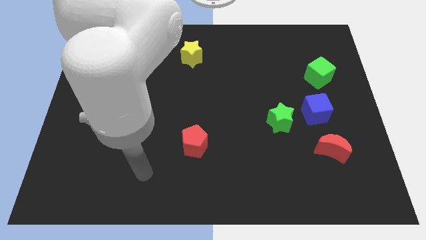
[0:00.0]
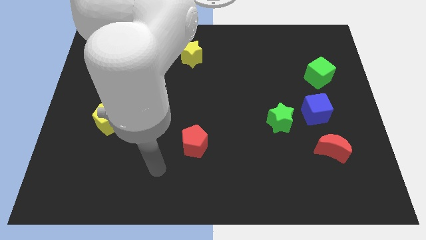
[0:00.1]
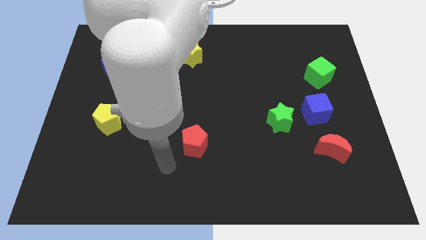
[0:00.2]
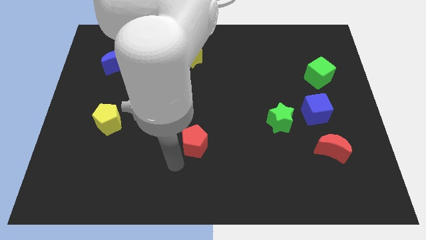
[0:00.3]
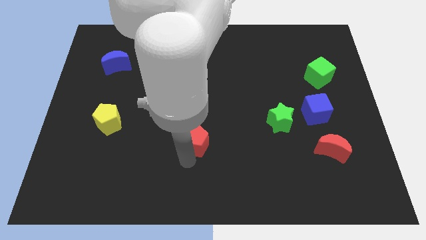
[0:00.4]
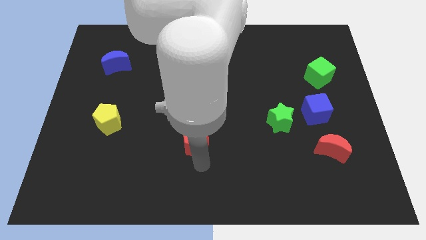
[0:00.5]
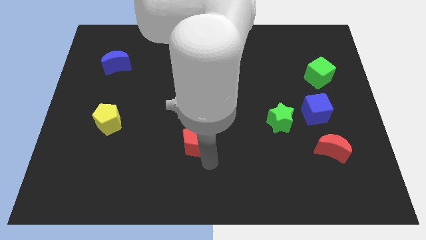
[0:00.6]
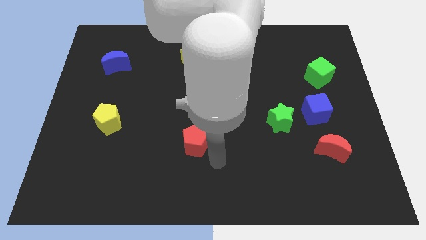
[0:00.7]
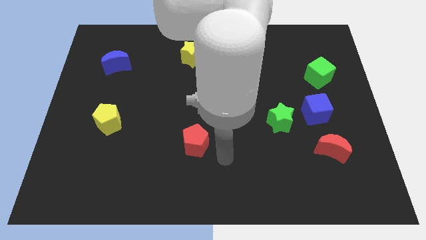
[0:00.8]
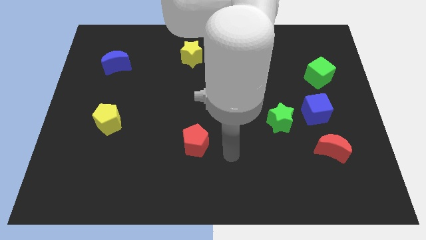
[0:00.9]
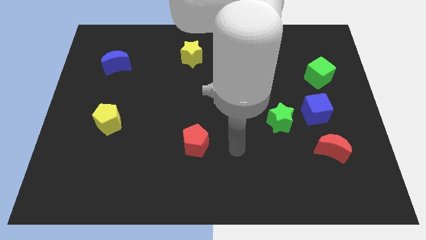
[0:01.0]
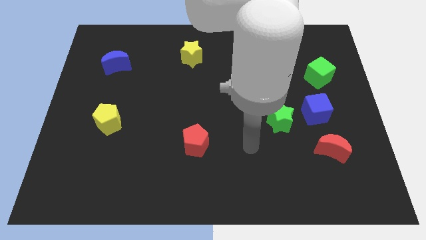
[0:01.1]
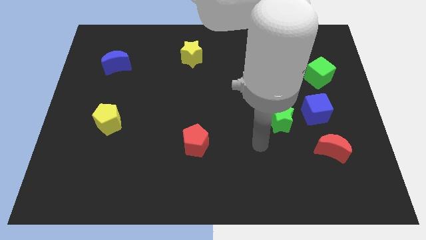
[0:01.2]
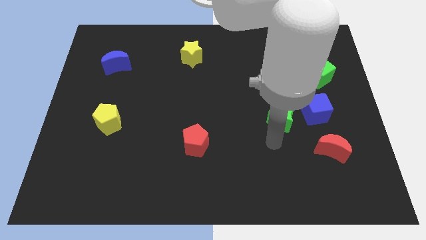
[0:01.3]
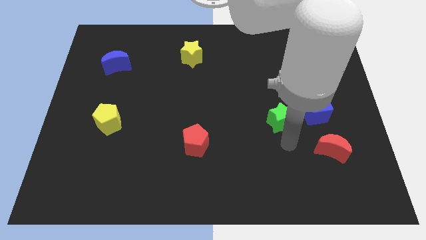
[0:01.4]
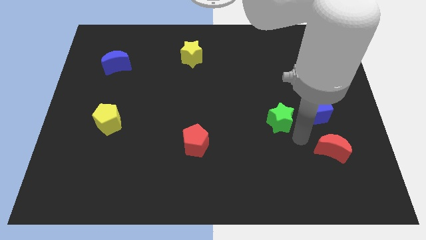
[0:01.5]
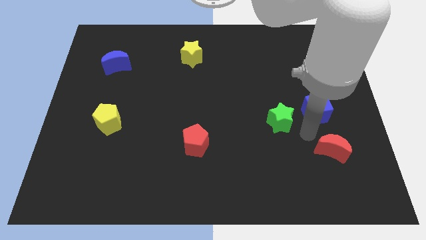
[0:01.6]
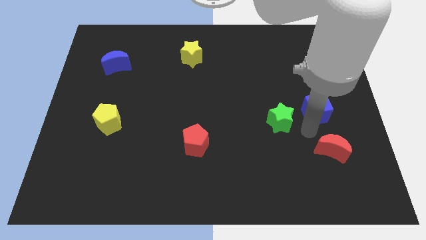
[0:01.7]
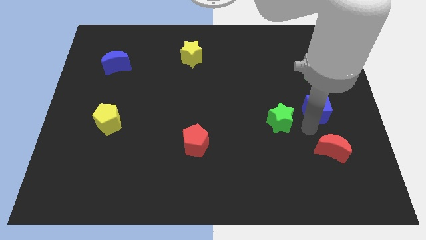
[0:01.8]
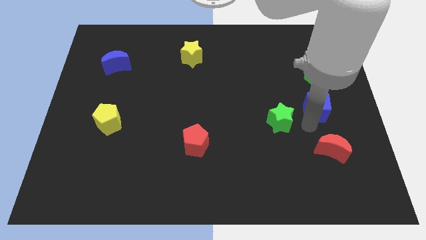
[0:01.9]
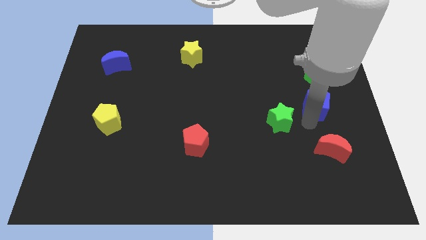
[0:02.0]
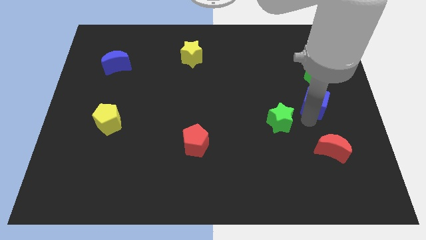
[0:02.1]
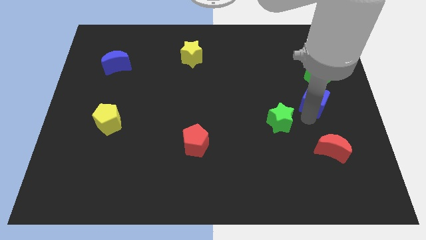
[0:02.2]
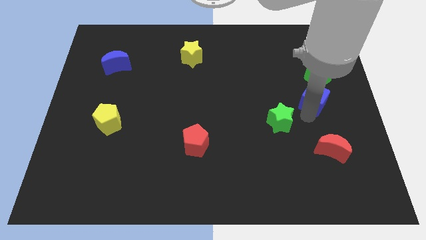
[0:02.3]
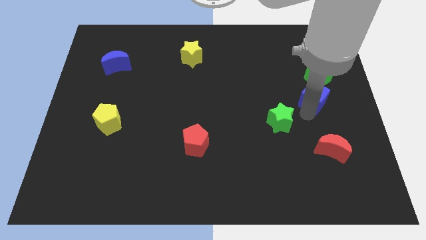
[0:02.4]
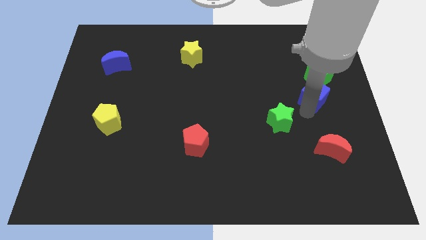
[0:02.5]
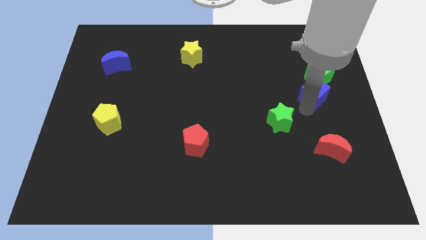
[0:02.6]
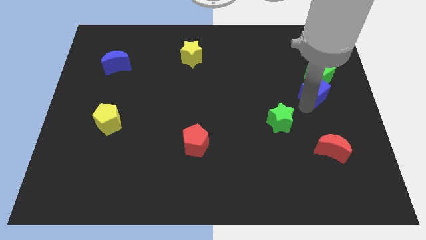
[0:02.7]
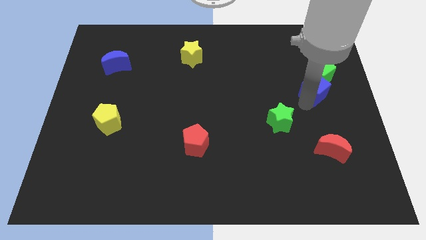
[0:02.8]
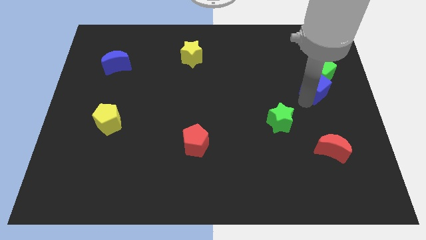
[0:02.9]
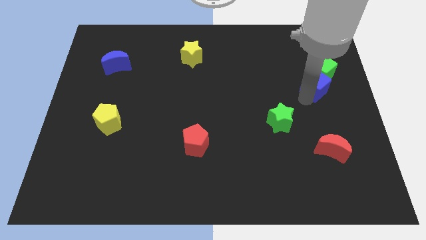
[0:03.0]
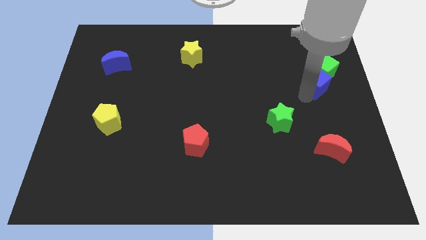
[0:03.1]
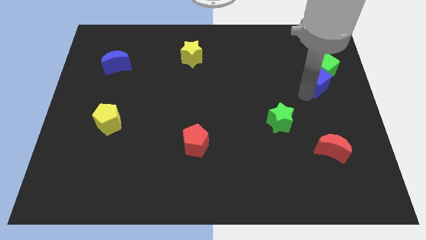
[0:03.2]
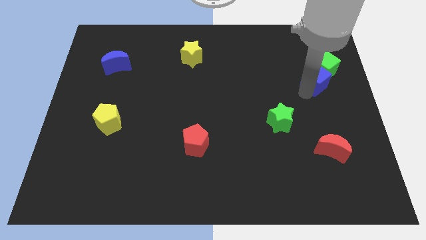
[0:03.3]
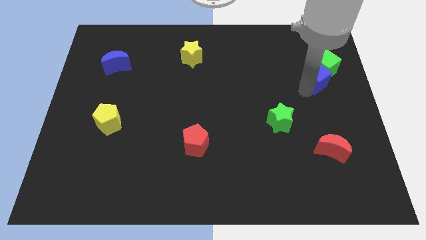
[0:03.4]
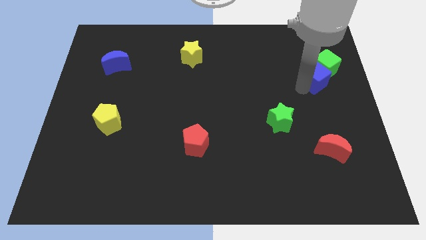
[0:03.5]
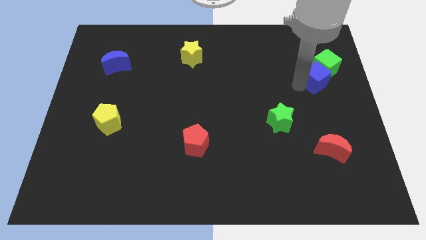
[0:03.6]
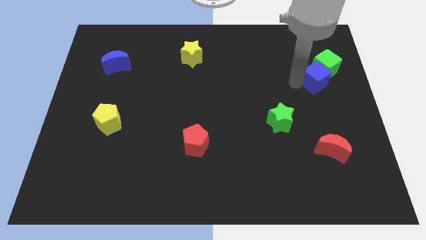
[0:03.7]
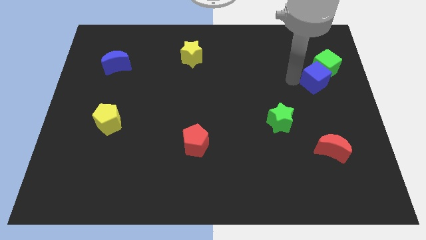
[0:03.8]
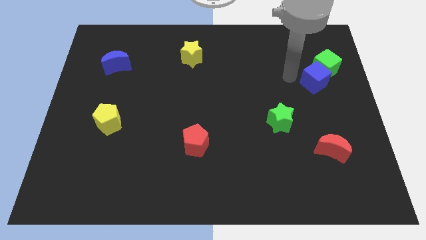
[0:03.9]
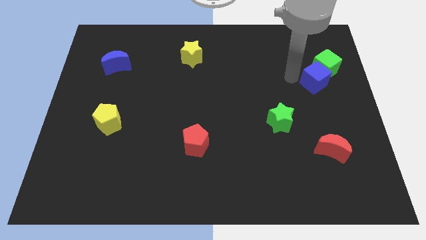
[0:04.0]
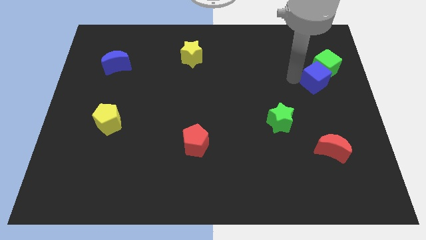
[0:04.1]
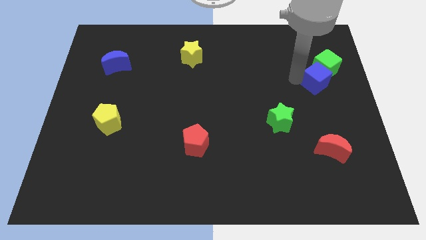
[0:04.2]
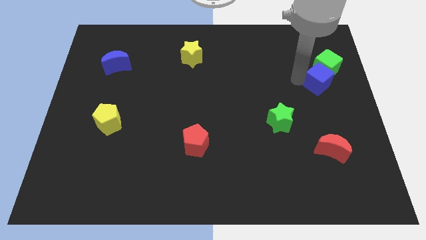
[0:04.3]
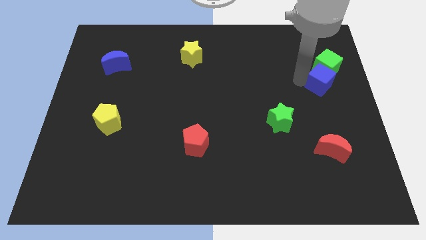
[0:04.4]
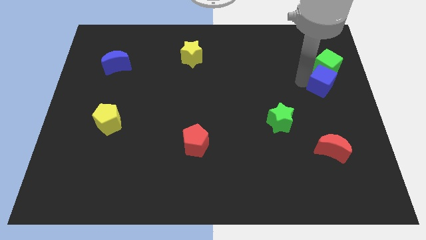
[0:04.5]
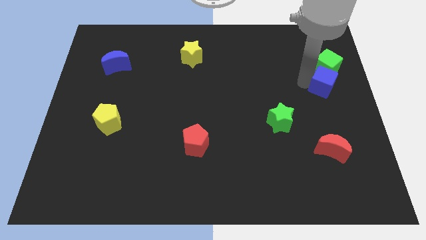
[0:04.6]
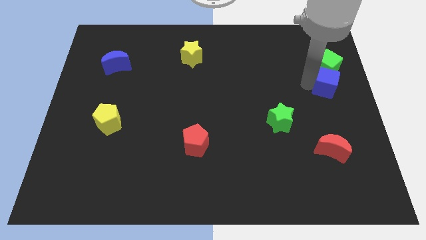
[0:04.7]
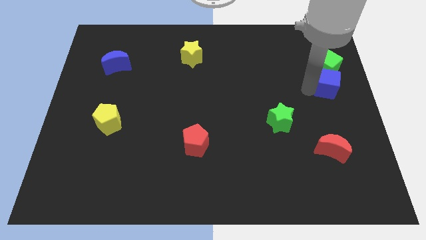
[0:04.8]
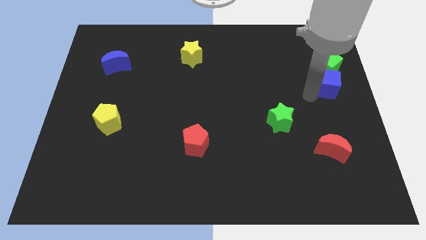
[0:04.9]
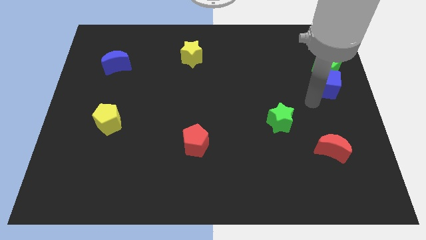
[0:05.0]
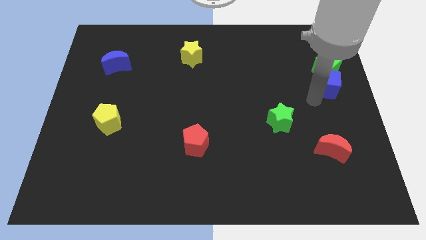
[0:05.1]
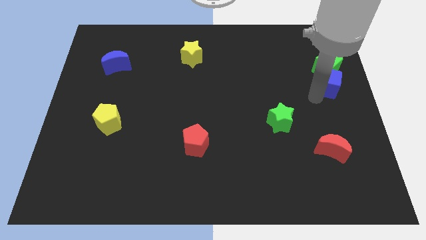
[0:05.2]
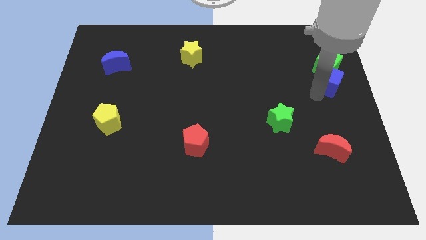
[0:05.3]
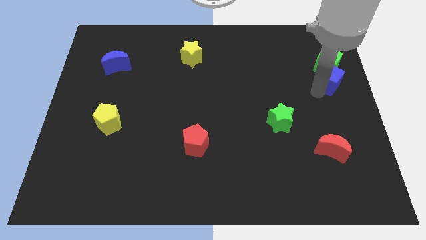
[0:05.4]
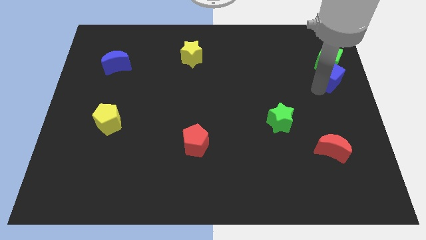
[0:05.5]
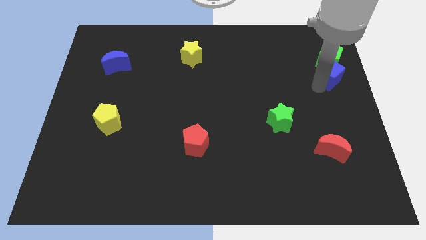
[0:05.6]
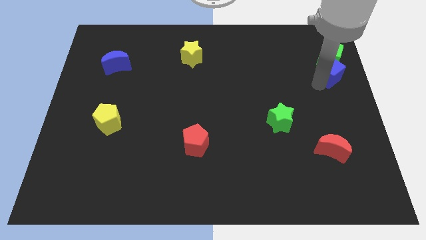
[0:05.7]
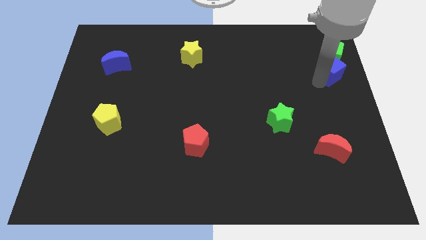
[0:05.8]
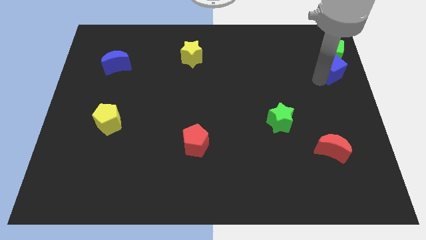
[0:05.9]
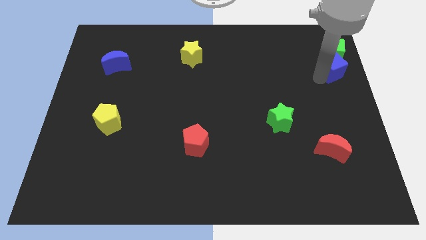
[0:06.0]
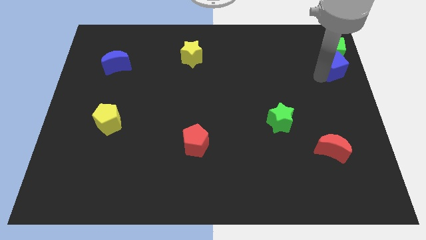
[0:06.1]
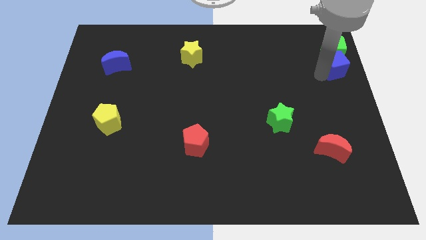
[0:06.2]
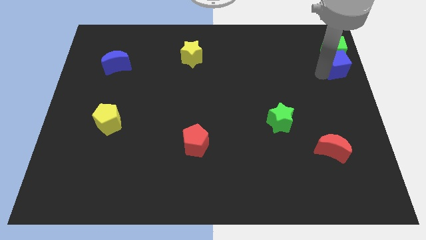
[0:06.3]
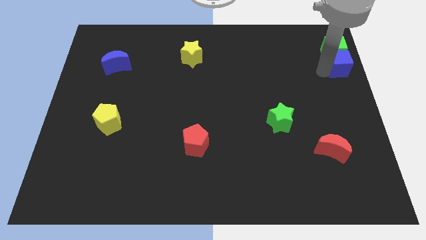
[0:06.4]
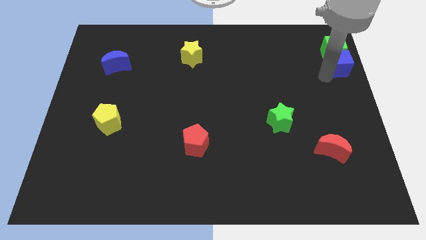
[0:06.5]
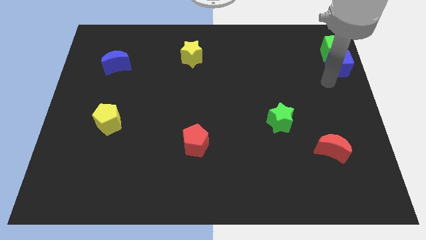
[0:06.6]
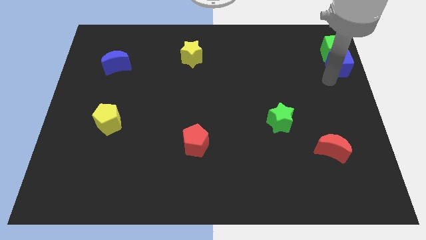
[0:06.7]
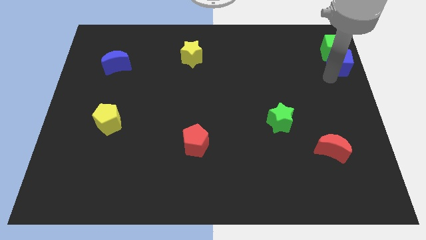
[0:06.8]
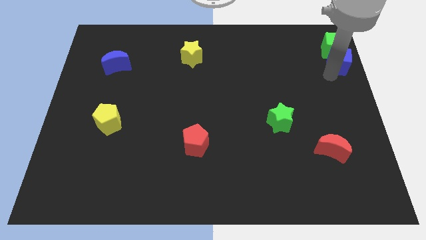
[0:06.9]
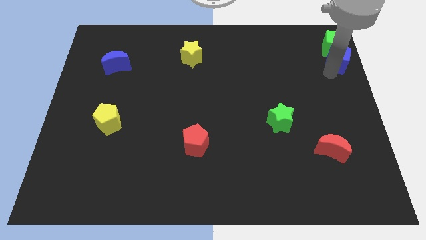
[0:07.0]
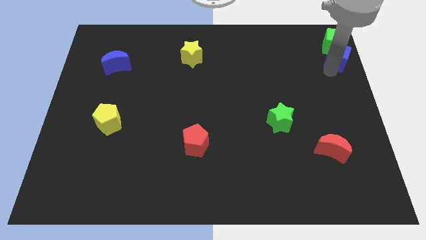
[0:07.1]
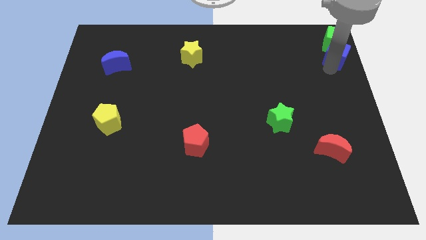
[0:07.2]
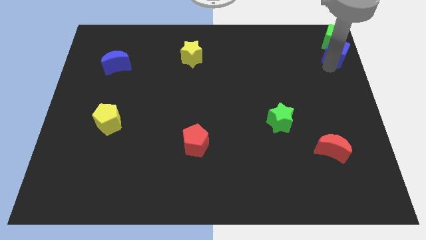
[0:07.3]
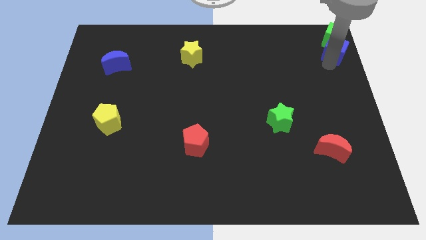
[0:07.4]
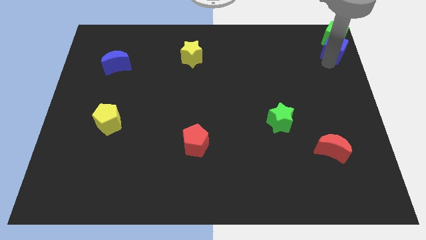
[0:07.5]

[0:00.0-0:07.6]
slide the blue cube to the top right of the board
